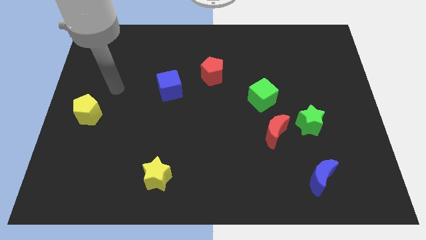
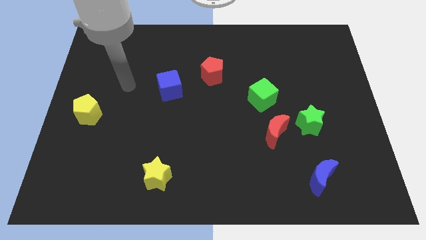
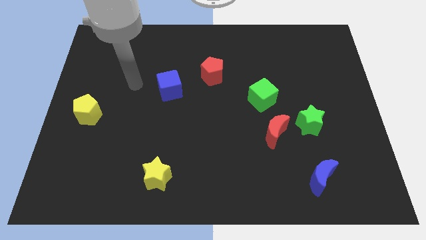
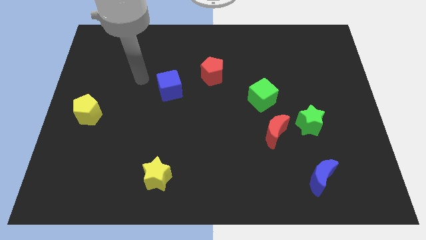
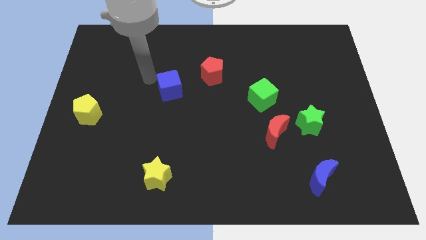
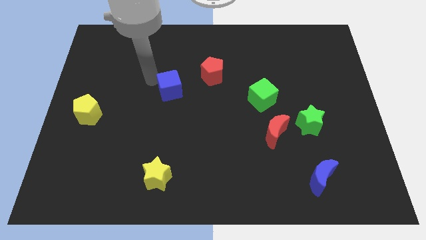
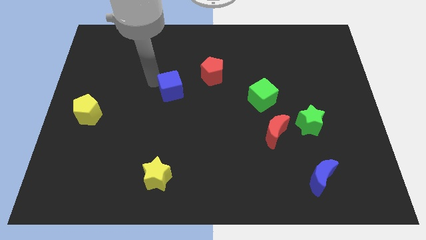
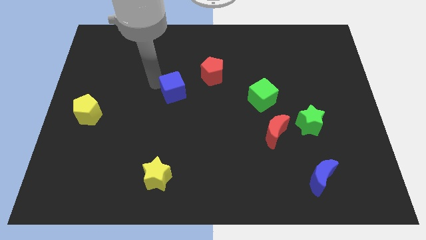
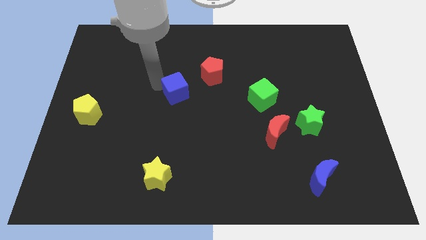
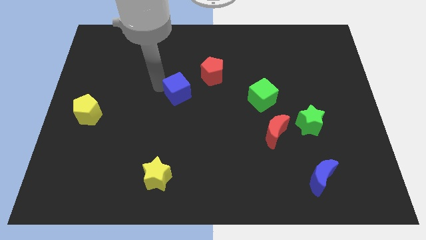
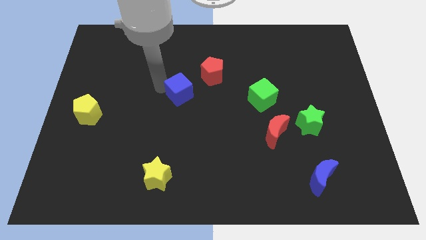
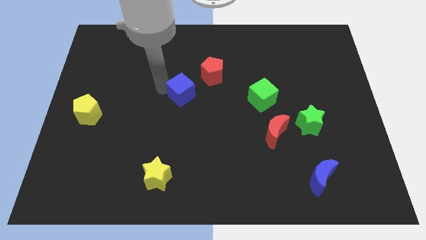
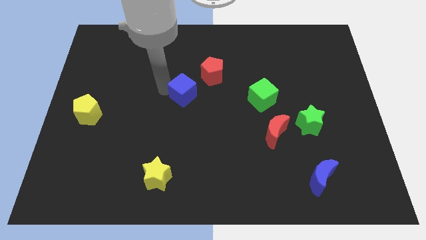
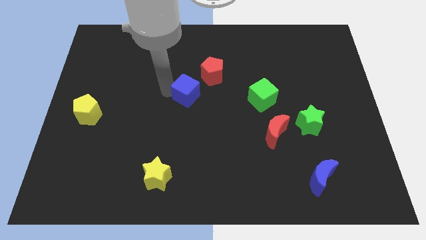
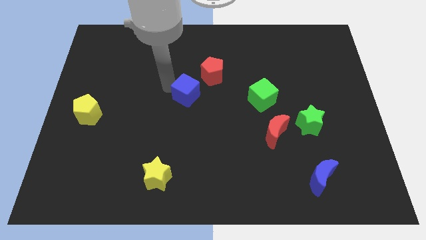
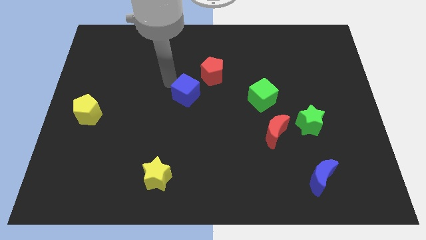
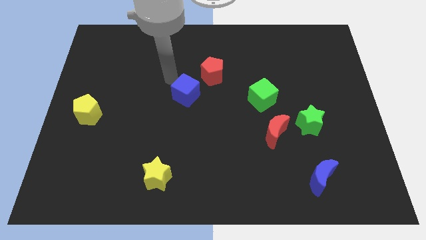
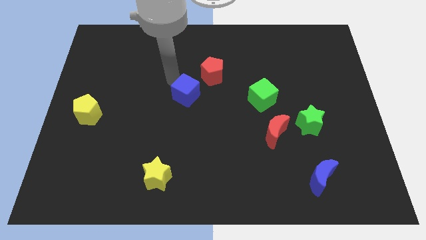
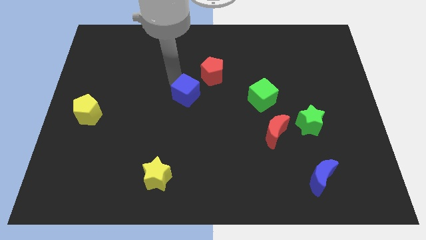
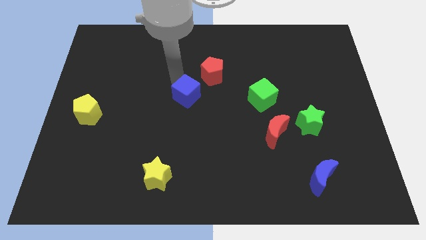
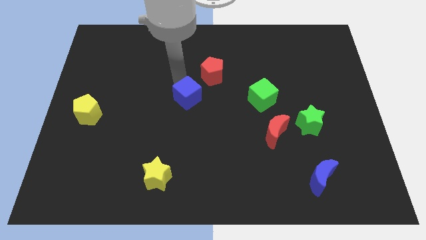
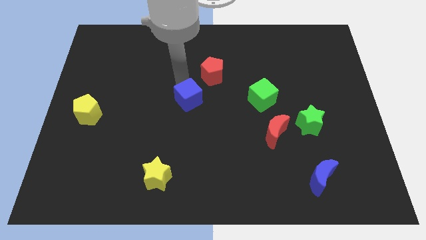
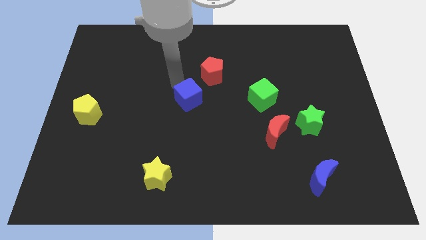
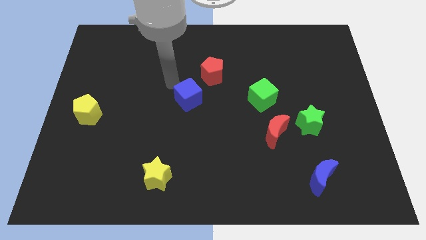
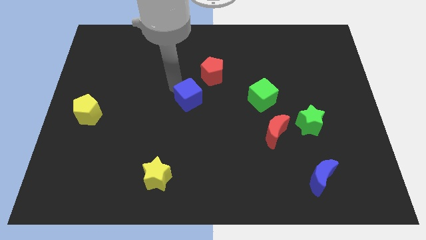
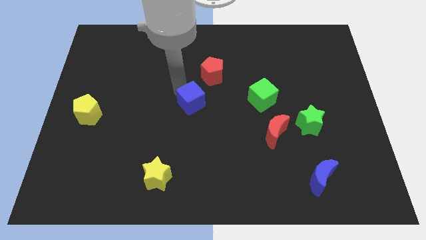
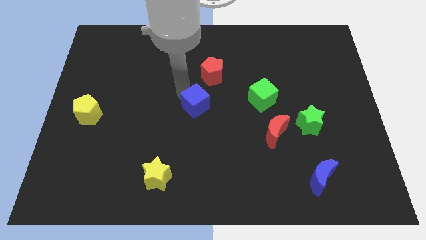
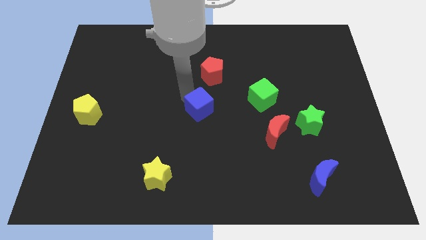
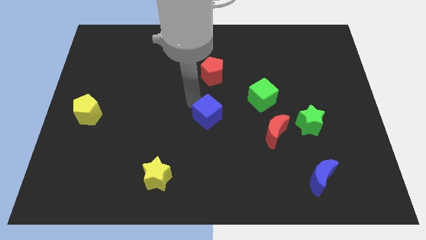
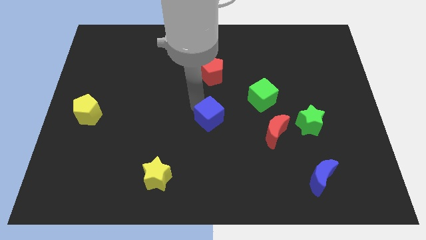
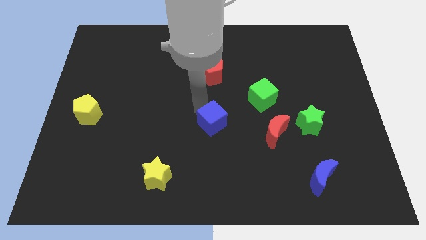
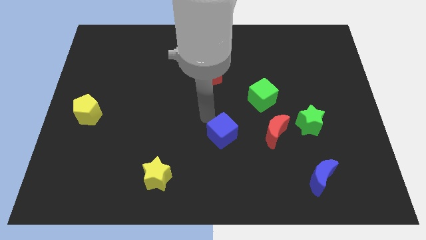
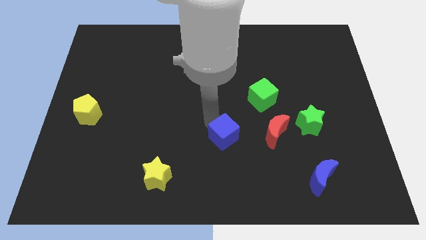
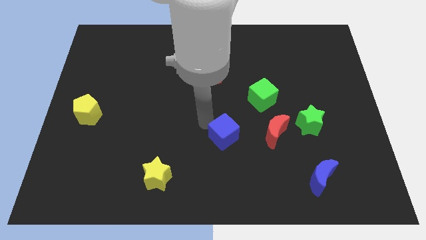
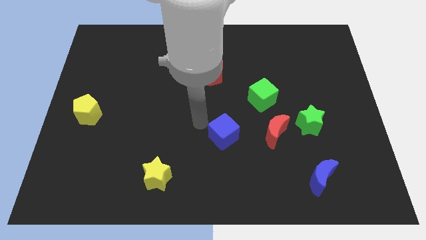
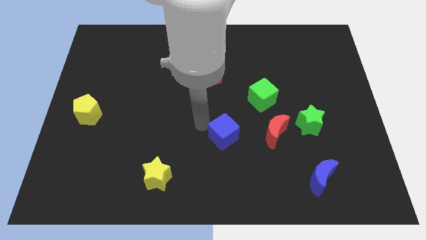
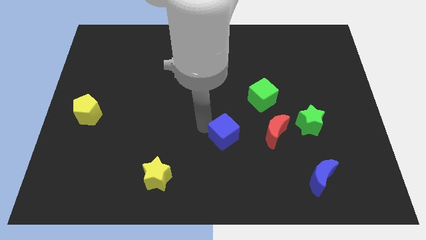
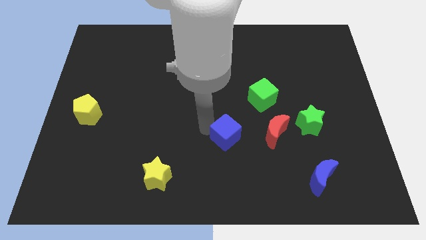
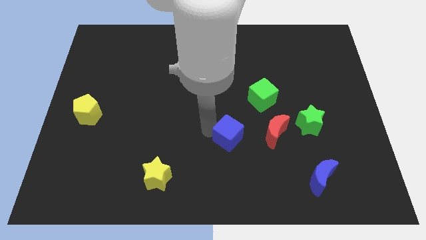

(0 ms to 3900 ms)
push the blue cube diagonally downwards and to the right

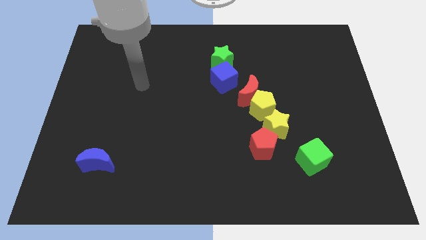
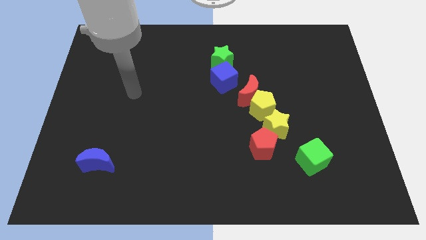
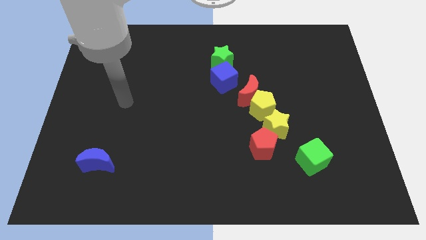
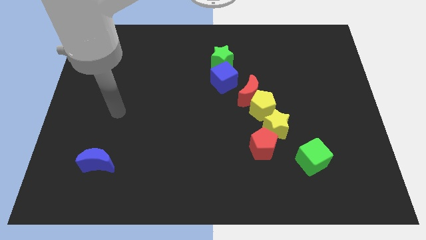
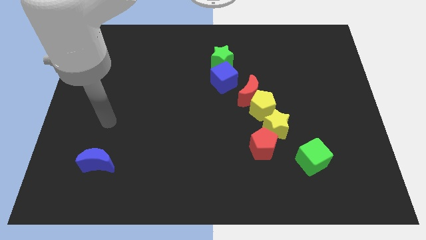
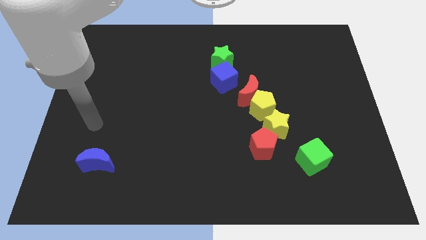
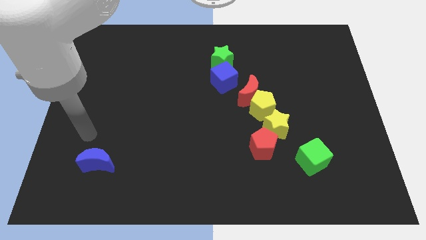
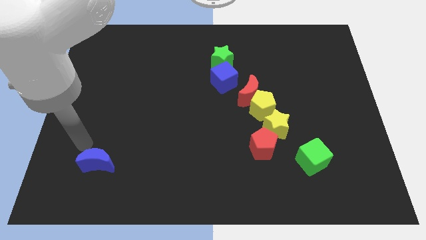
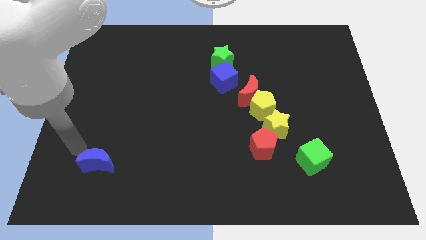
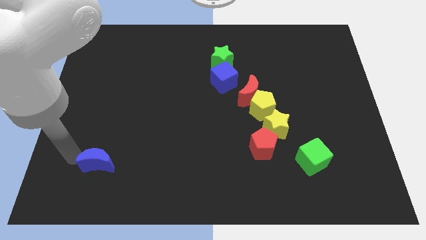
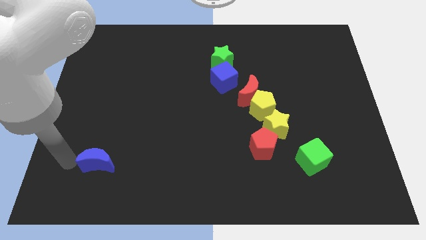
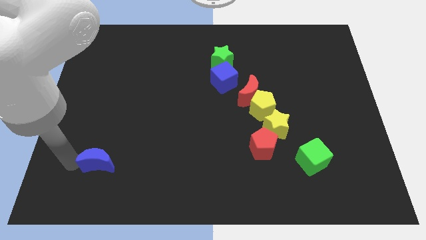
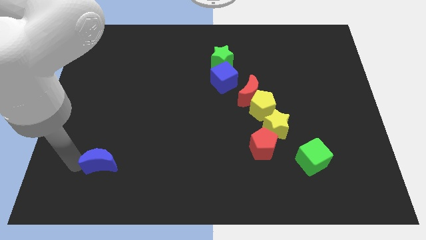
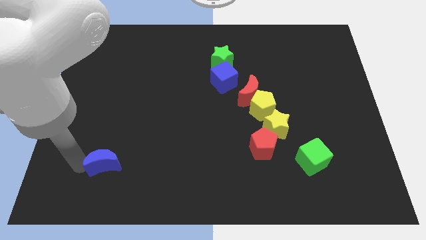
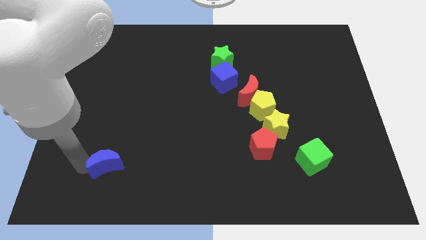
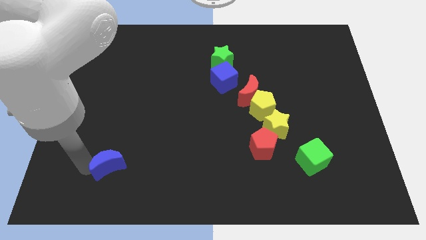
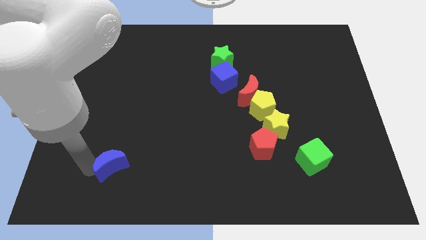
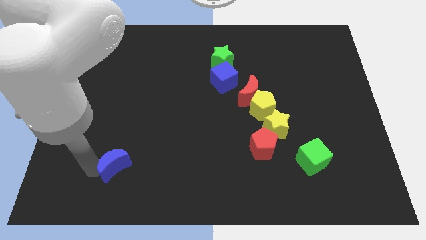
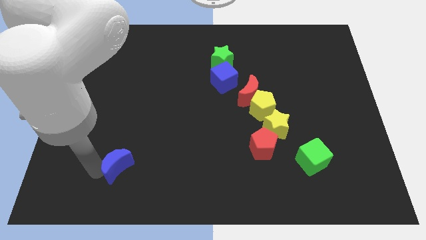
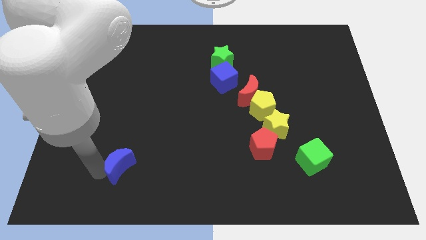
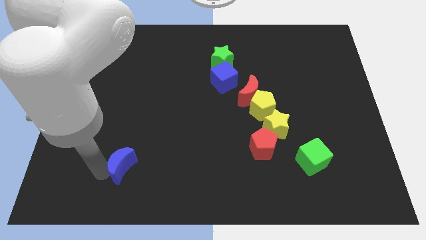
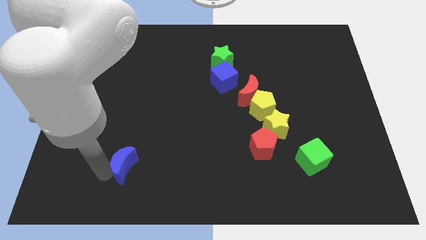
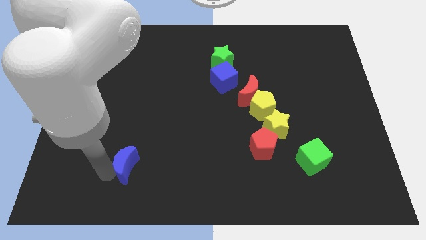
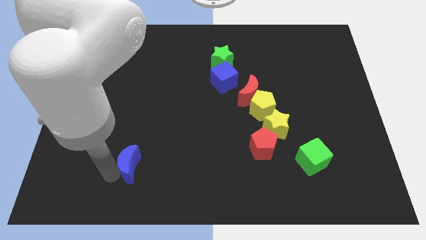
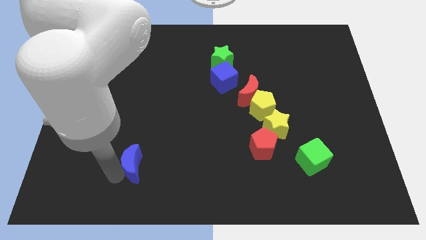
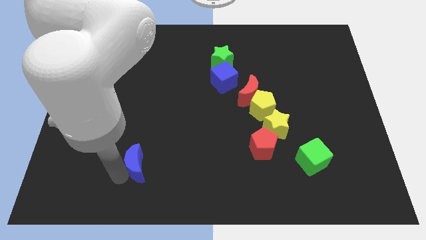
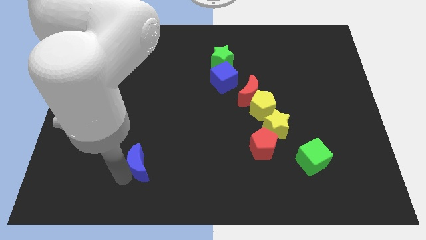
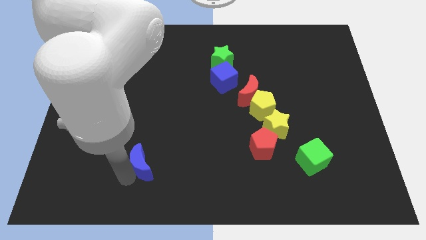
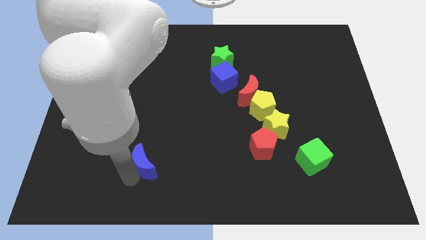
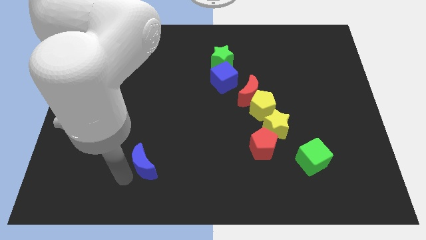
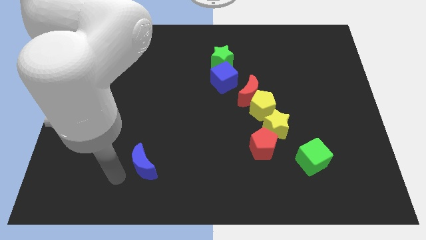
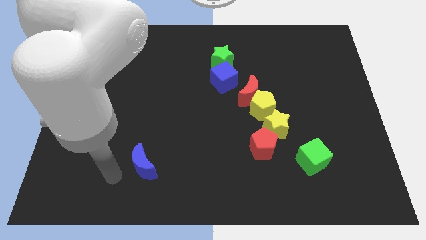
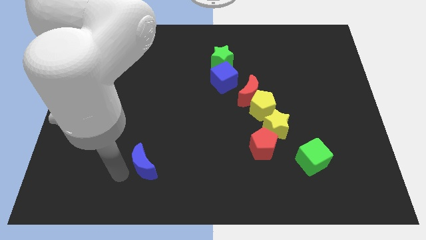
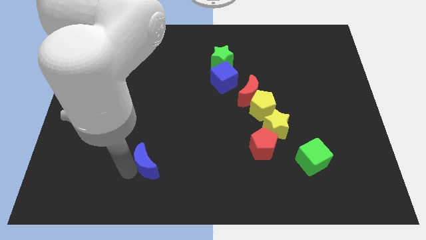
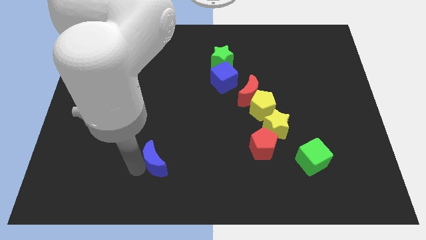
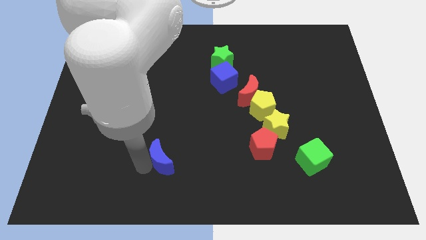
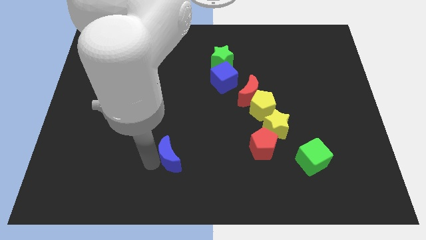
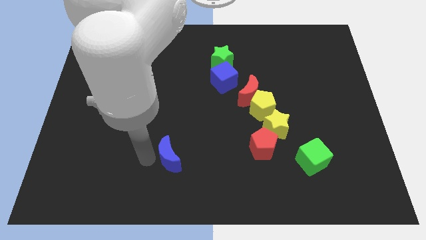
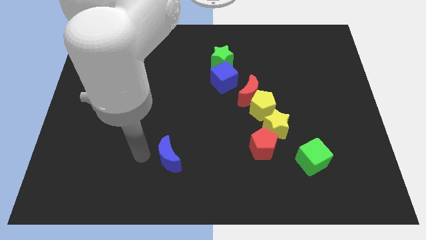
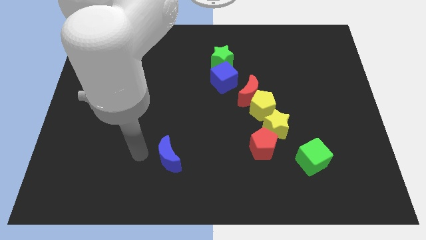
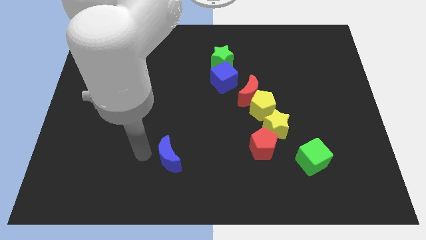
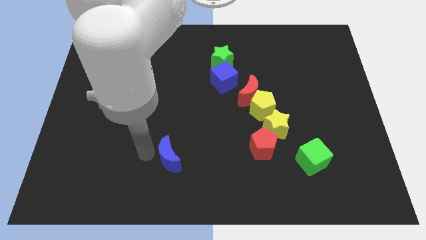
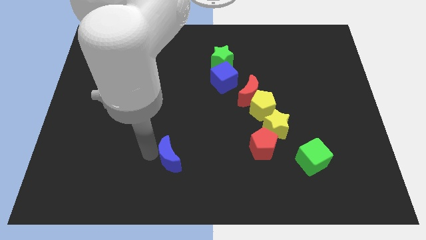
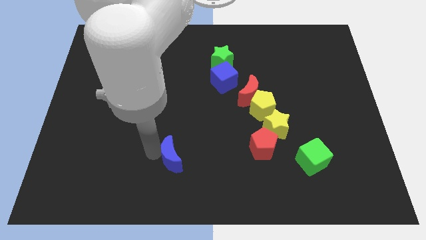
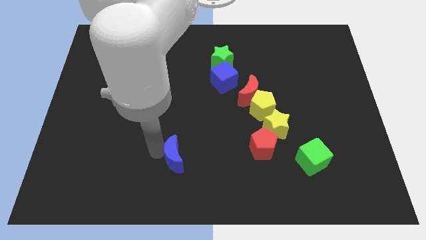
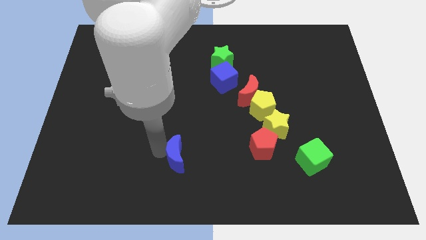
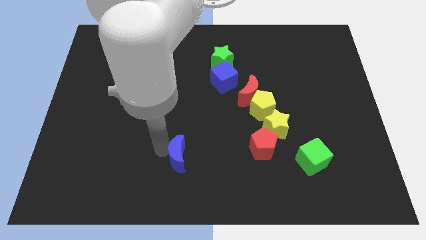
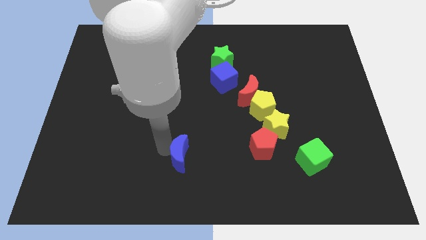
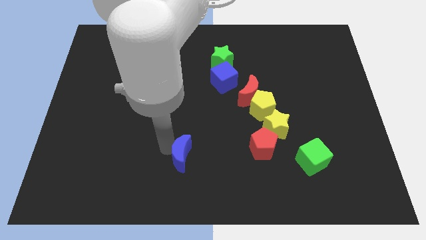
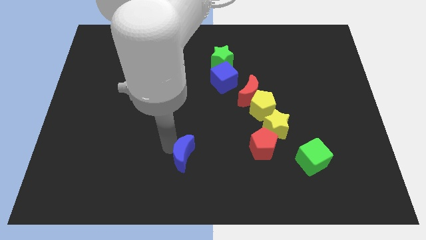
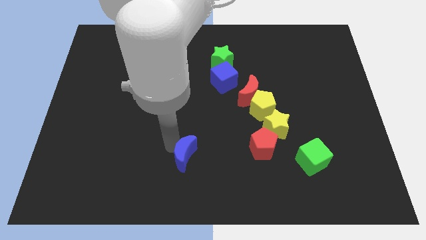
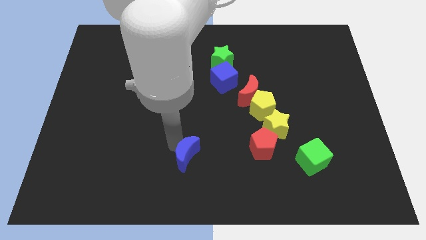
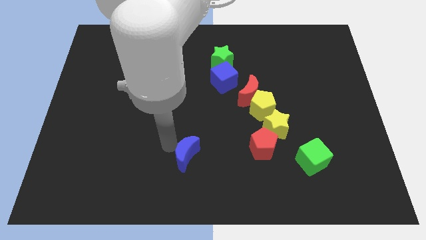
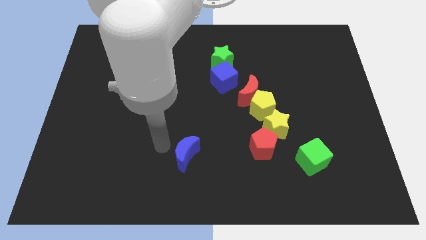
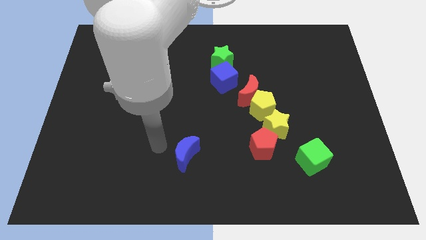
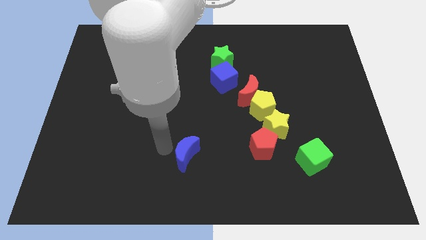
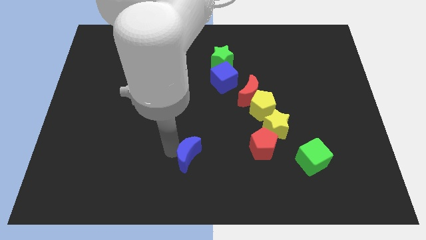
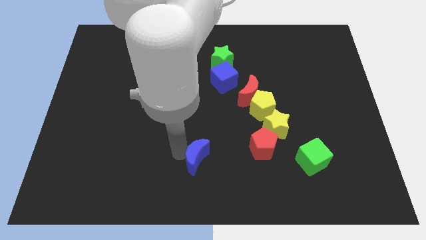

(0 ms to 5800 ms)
slide the blue moon to the right
